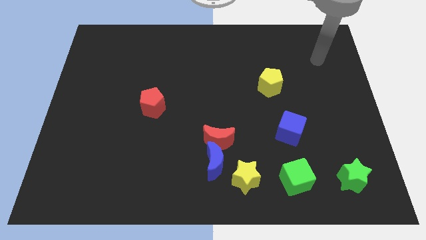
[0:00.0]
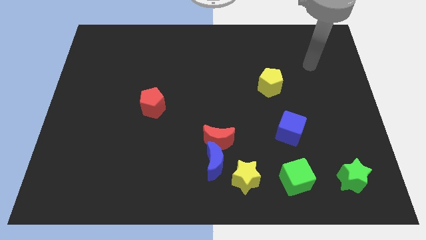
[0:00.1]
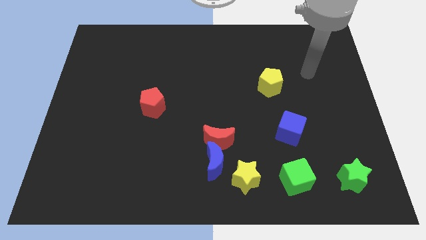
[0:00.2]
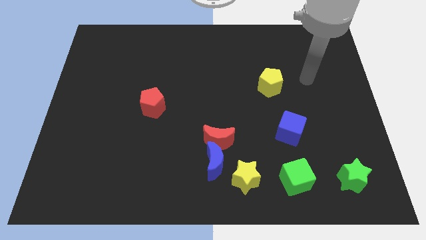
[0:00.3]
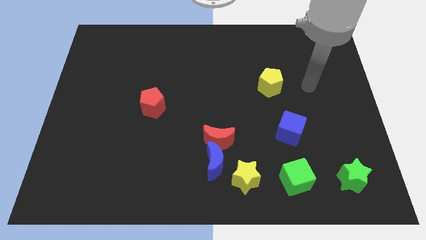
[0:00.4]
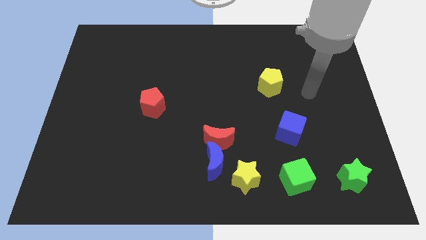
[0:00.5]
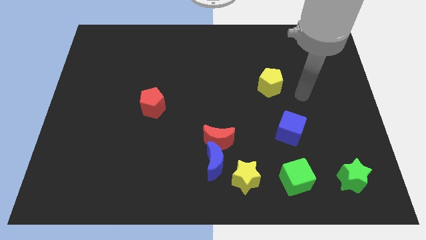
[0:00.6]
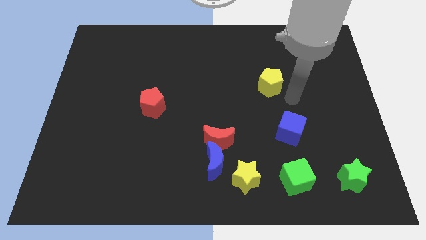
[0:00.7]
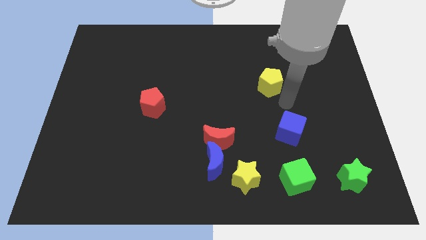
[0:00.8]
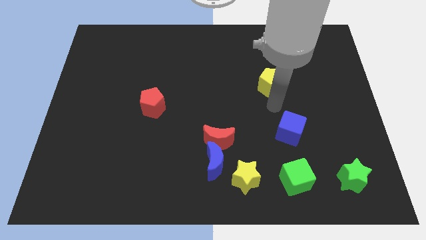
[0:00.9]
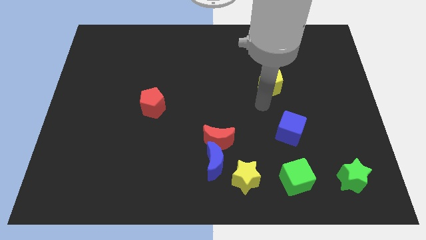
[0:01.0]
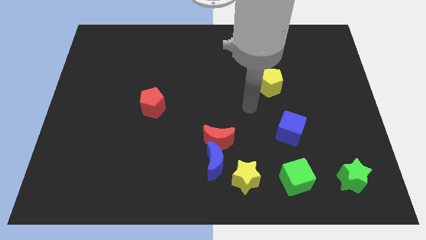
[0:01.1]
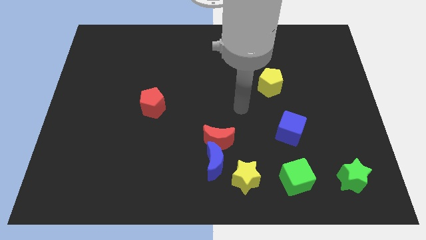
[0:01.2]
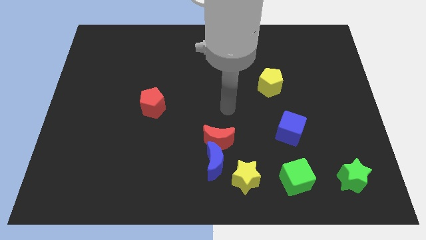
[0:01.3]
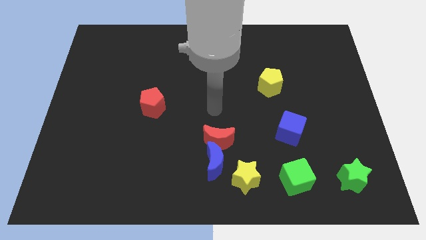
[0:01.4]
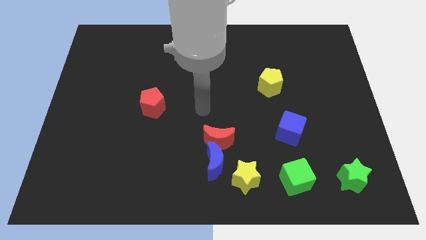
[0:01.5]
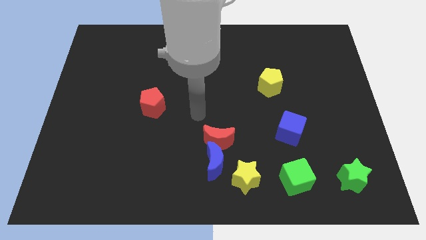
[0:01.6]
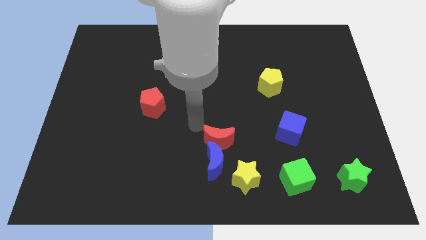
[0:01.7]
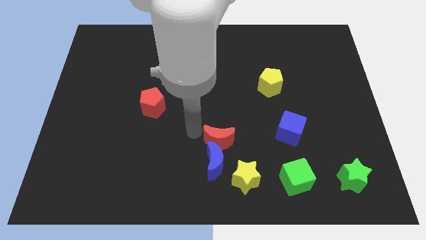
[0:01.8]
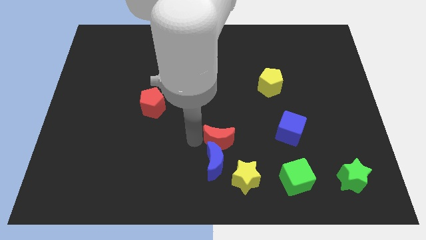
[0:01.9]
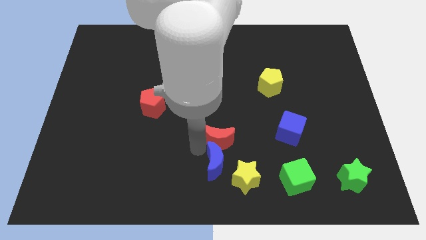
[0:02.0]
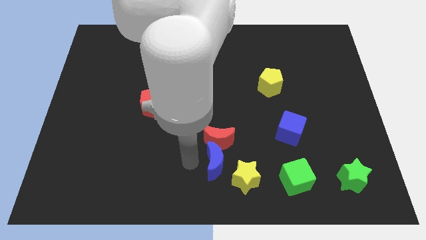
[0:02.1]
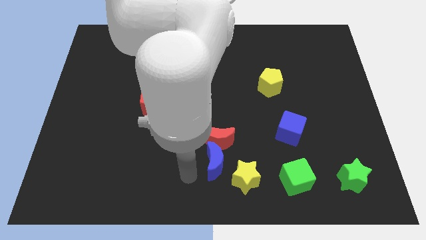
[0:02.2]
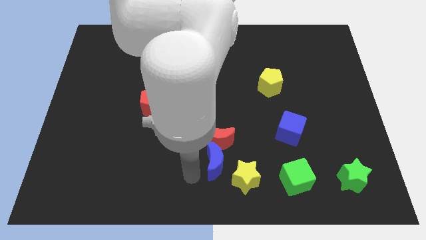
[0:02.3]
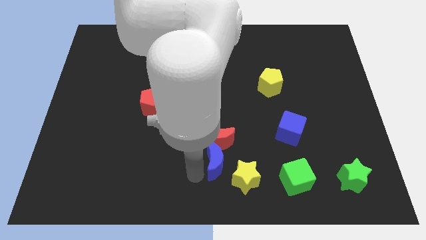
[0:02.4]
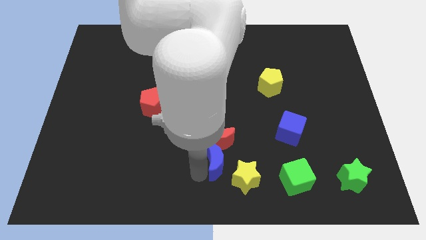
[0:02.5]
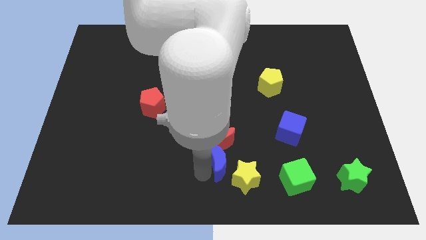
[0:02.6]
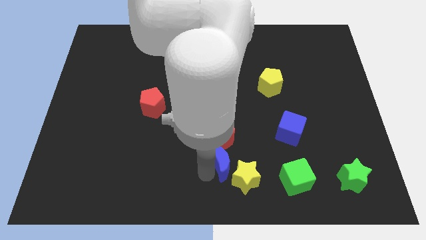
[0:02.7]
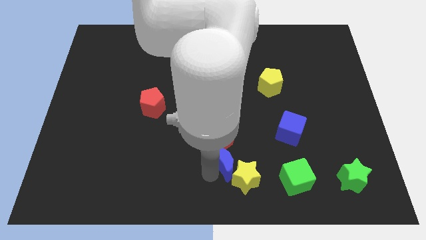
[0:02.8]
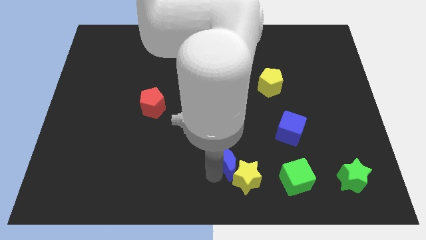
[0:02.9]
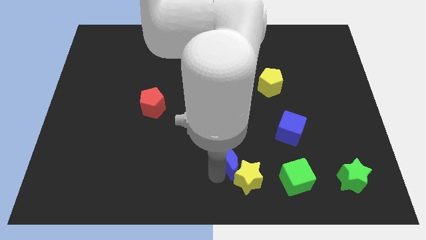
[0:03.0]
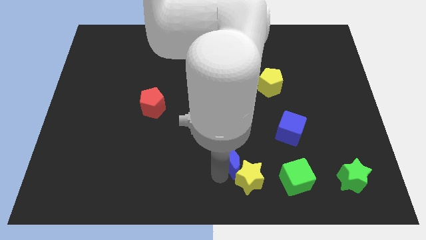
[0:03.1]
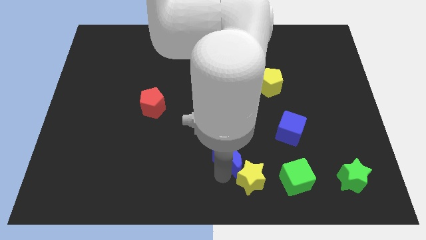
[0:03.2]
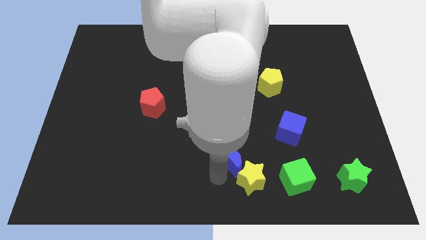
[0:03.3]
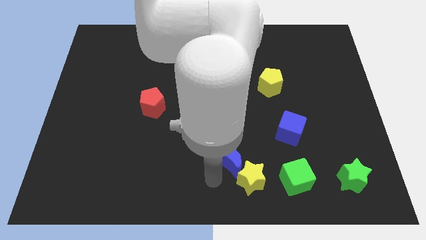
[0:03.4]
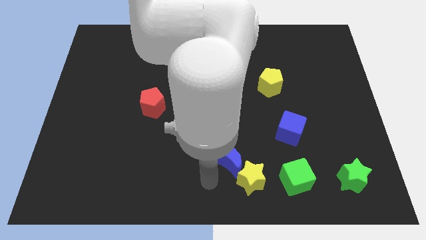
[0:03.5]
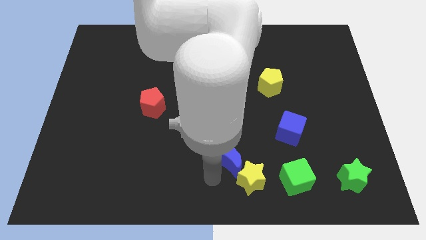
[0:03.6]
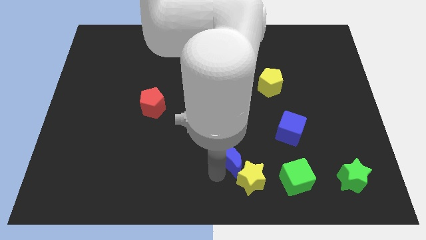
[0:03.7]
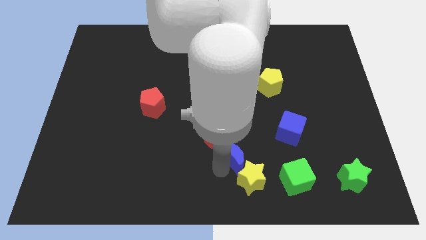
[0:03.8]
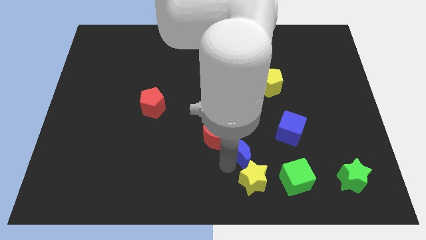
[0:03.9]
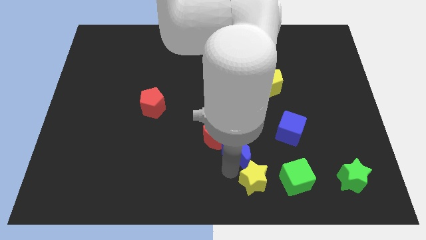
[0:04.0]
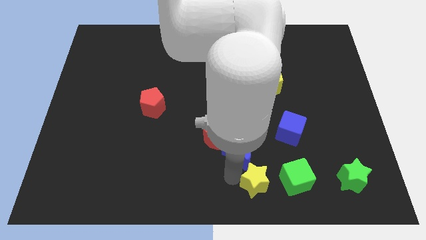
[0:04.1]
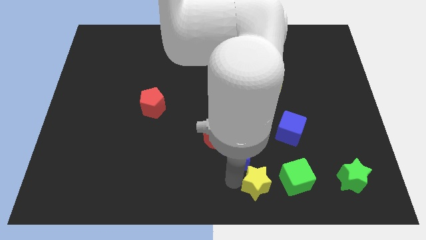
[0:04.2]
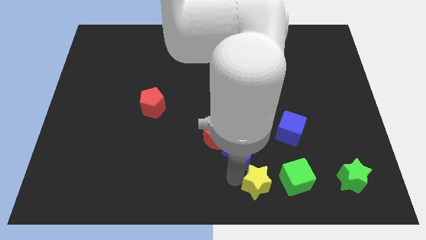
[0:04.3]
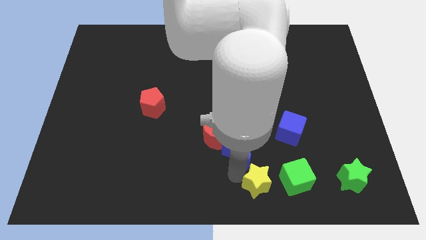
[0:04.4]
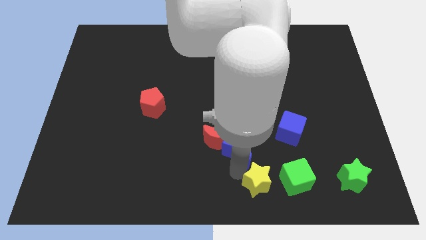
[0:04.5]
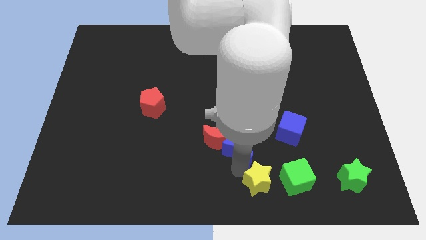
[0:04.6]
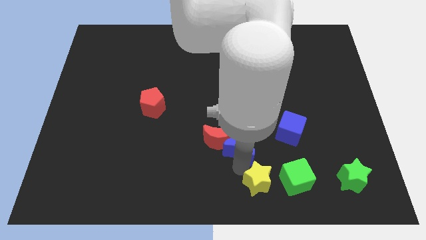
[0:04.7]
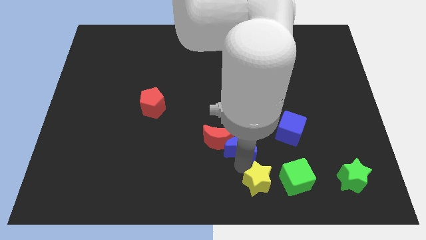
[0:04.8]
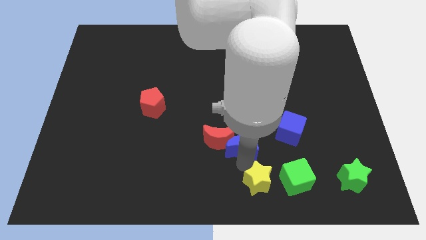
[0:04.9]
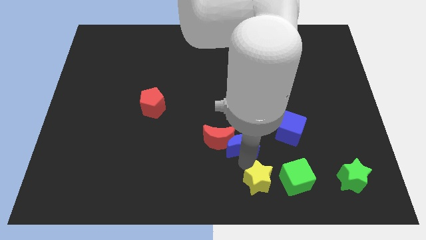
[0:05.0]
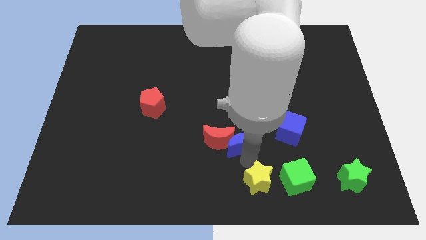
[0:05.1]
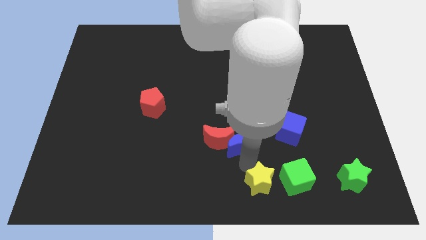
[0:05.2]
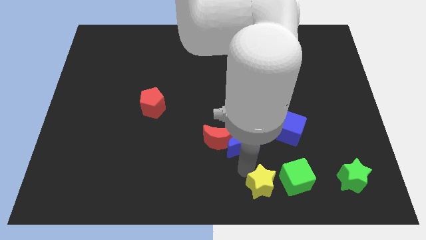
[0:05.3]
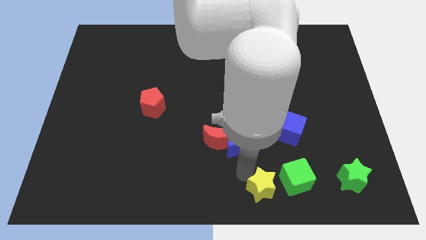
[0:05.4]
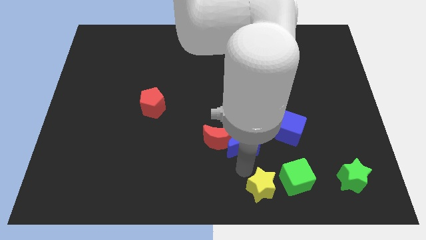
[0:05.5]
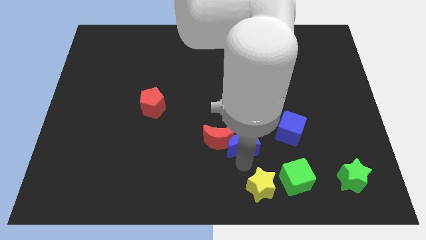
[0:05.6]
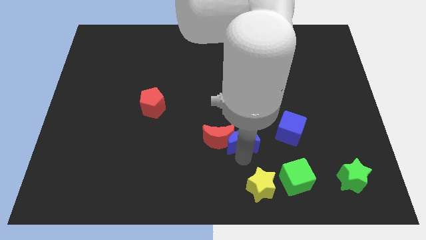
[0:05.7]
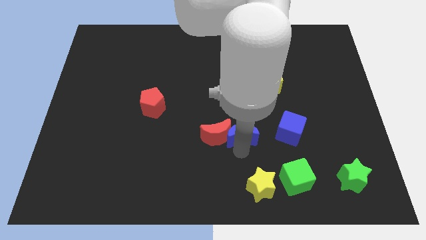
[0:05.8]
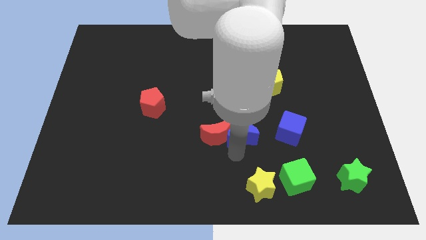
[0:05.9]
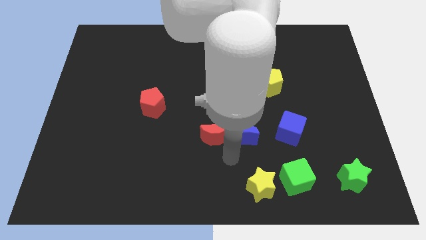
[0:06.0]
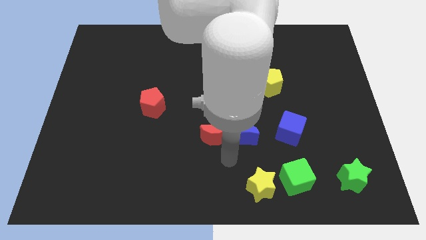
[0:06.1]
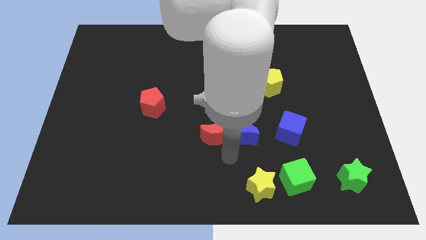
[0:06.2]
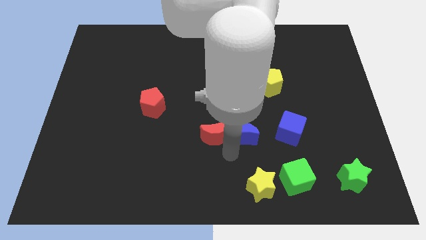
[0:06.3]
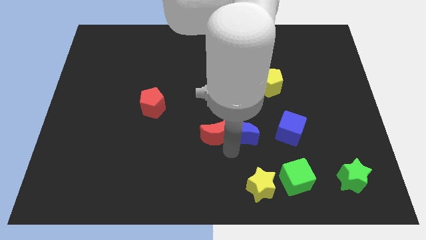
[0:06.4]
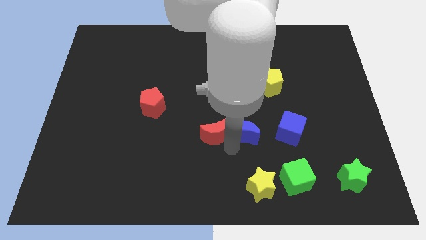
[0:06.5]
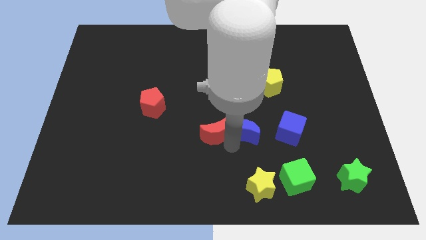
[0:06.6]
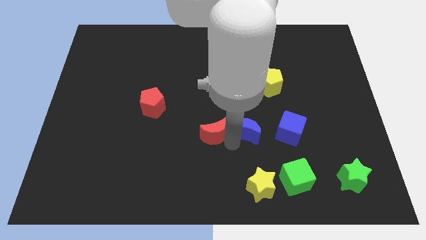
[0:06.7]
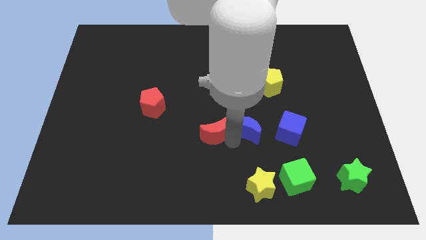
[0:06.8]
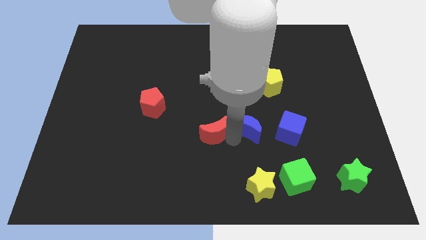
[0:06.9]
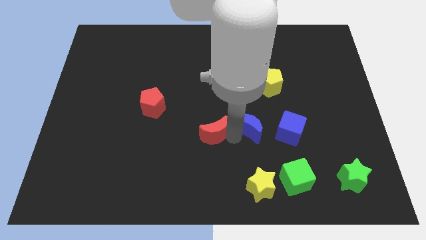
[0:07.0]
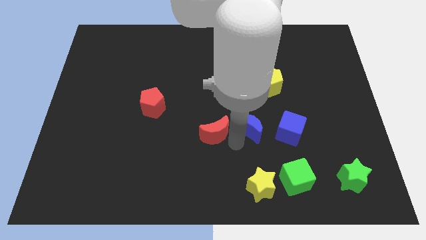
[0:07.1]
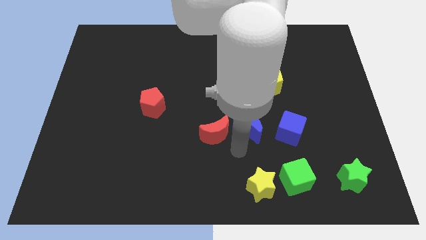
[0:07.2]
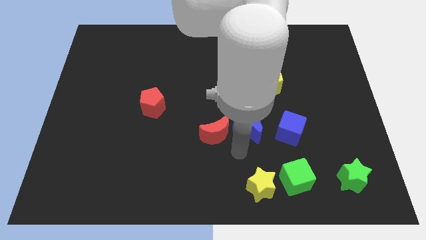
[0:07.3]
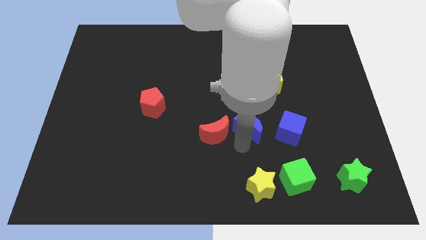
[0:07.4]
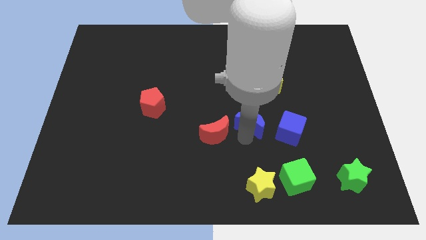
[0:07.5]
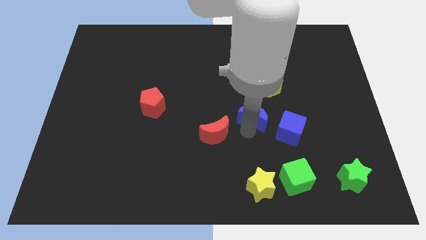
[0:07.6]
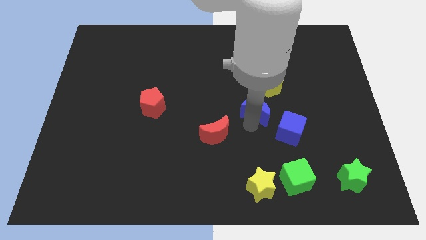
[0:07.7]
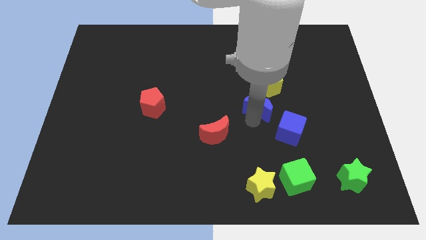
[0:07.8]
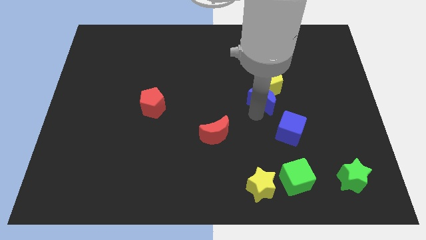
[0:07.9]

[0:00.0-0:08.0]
move the blue moon towards the yellow pentagon
